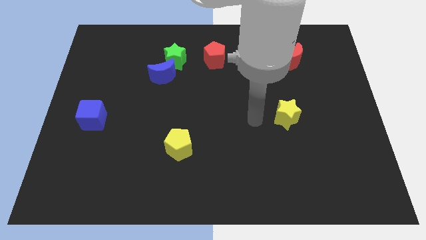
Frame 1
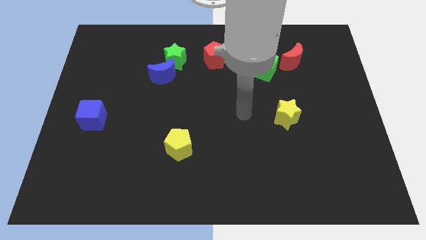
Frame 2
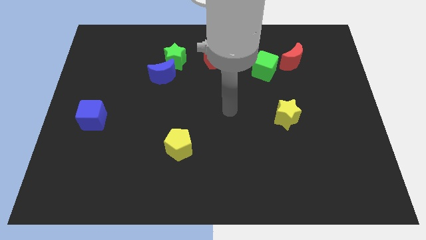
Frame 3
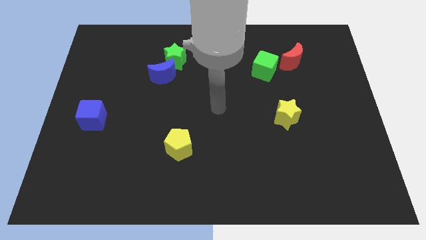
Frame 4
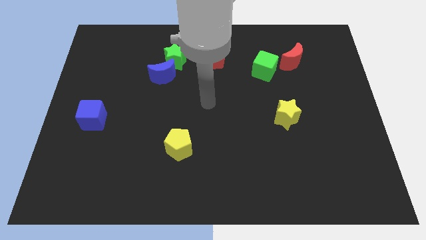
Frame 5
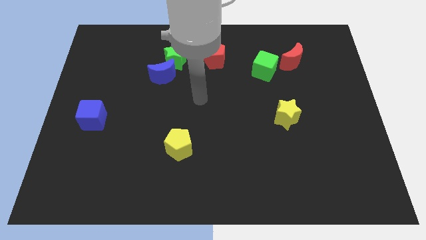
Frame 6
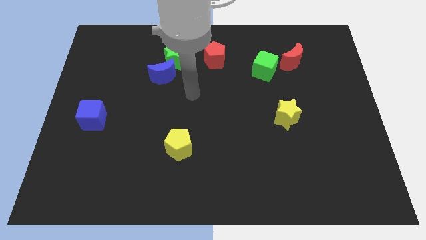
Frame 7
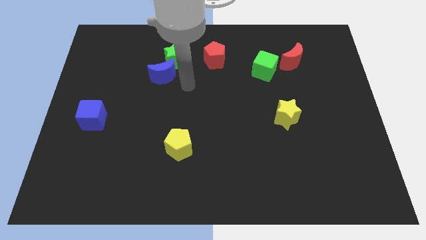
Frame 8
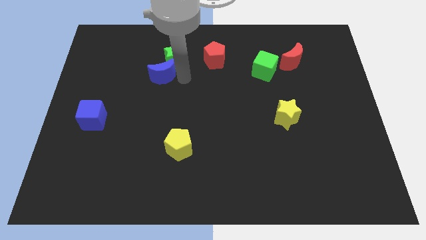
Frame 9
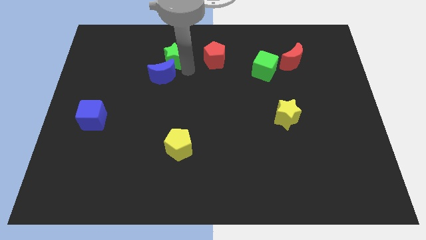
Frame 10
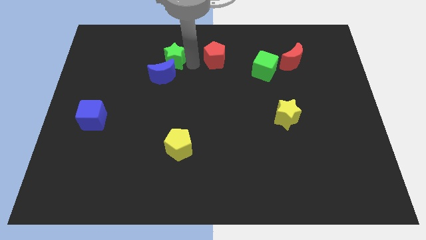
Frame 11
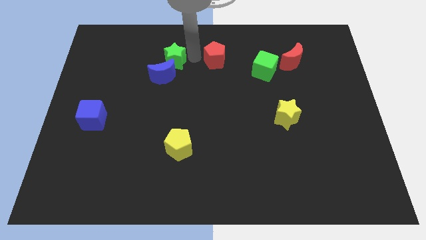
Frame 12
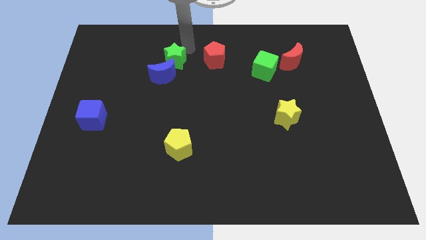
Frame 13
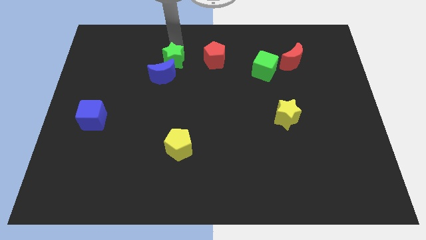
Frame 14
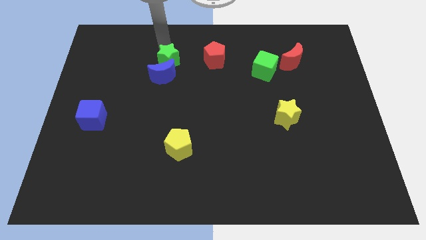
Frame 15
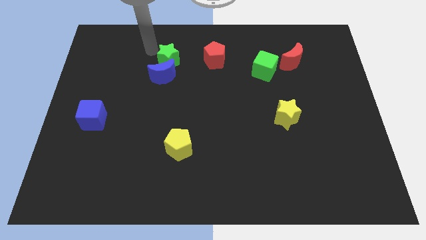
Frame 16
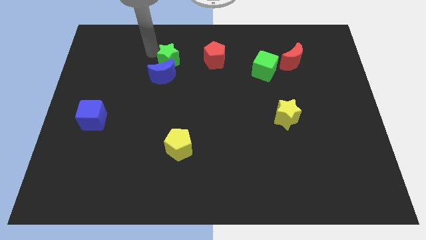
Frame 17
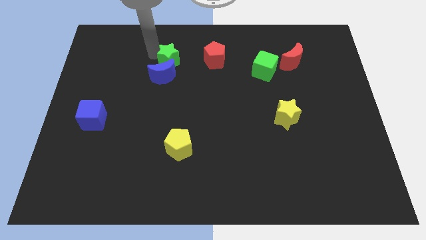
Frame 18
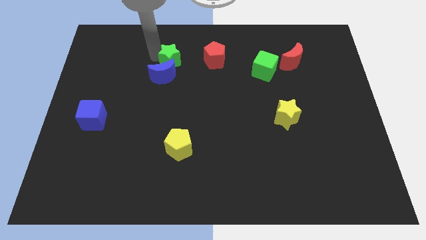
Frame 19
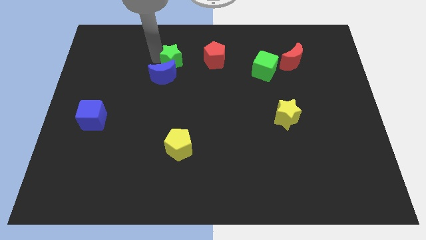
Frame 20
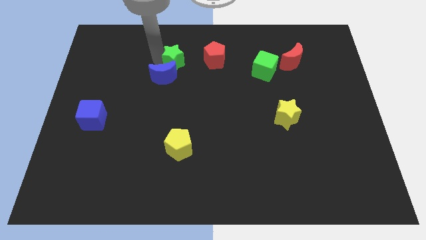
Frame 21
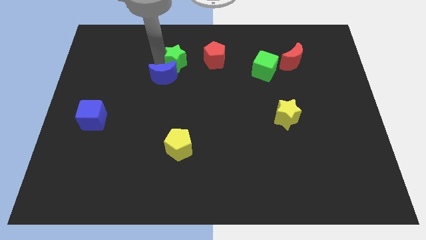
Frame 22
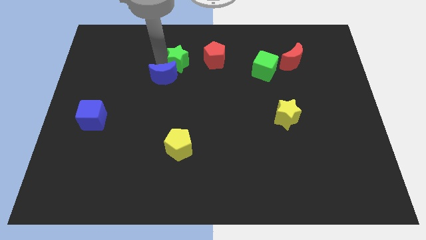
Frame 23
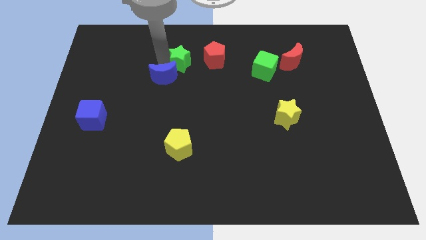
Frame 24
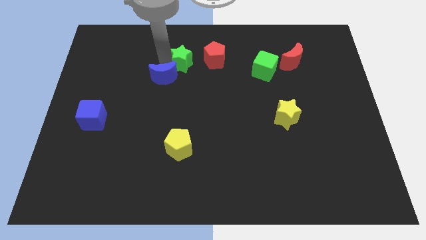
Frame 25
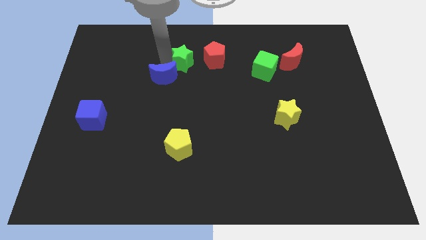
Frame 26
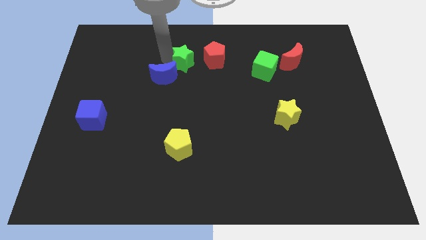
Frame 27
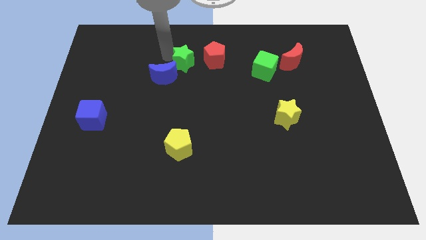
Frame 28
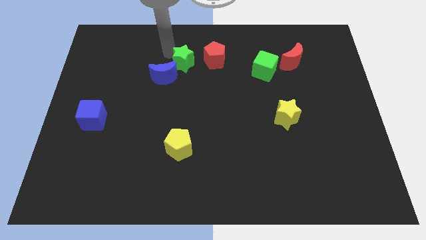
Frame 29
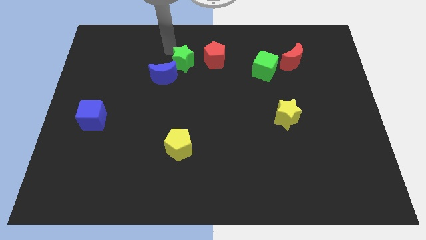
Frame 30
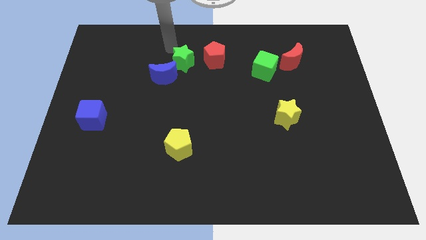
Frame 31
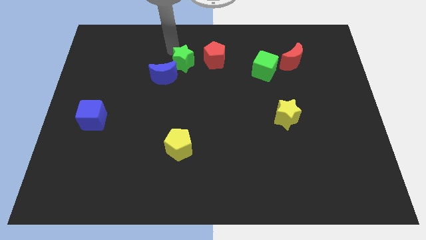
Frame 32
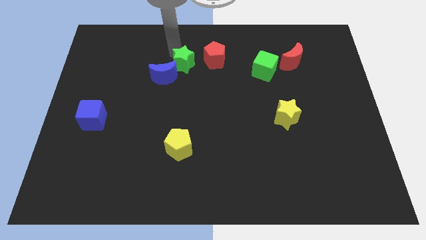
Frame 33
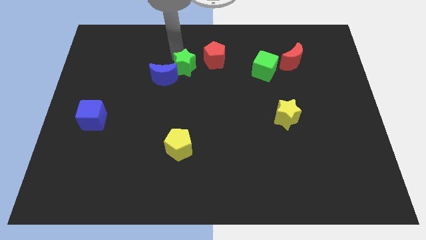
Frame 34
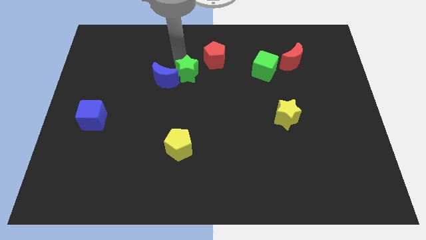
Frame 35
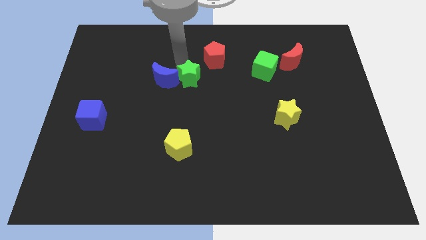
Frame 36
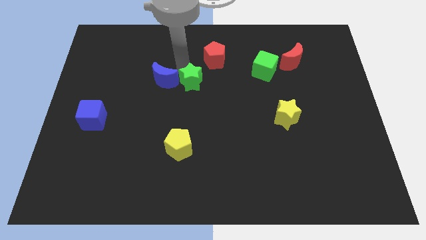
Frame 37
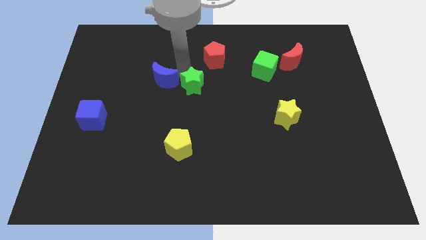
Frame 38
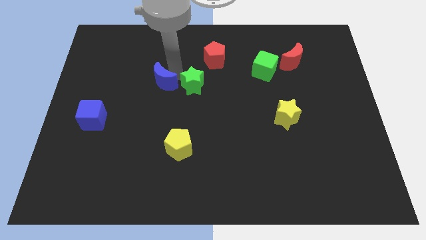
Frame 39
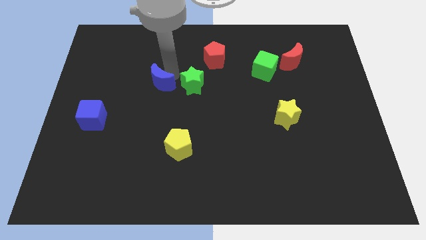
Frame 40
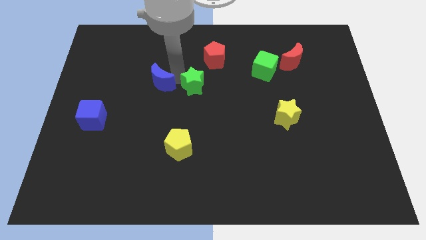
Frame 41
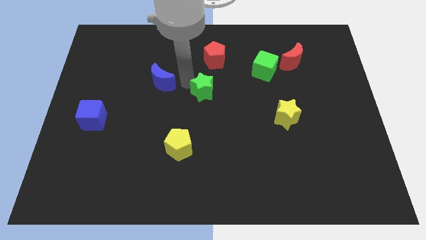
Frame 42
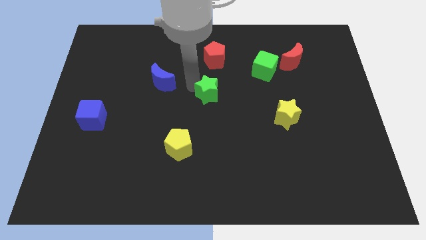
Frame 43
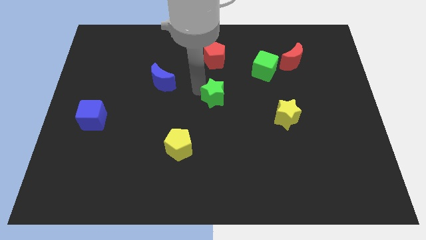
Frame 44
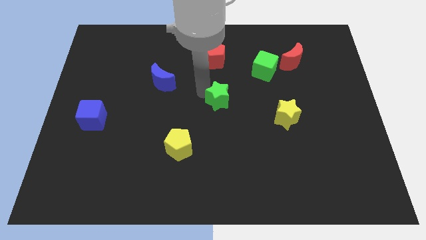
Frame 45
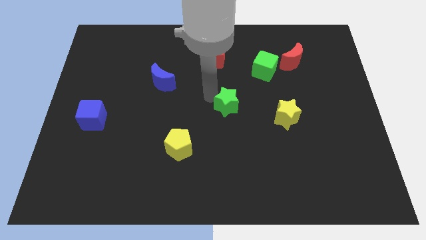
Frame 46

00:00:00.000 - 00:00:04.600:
move the green star downwards and right diagonally

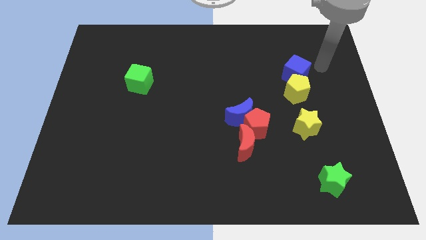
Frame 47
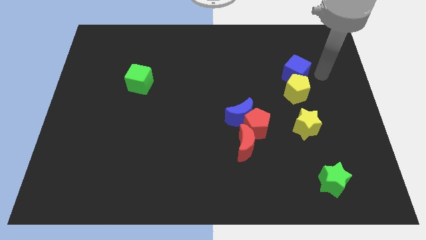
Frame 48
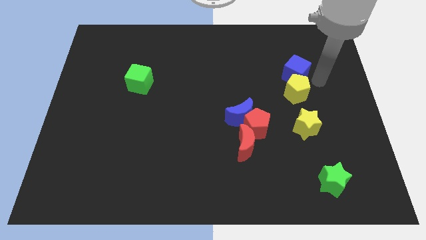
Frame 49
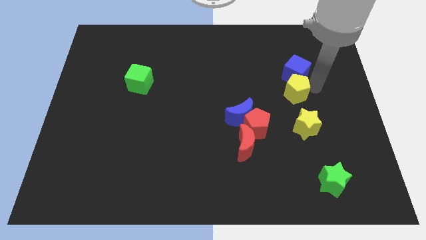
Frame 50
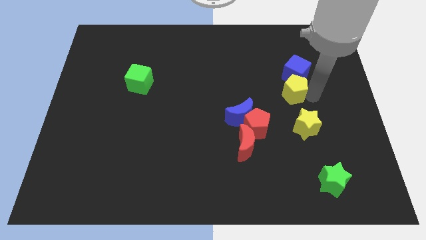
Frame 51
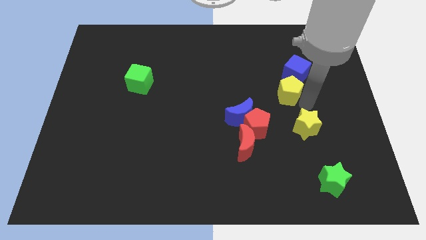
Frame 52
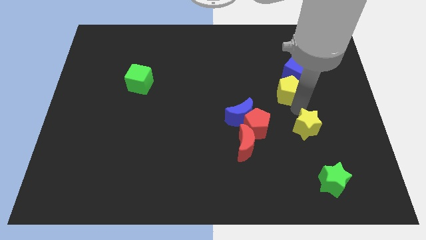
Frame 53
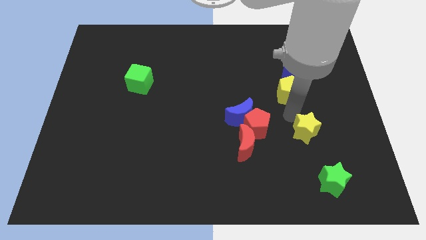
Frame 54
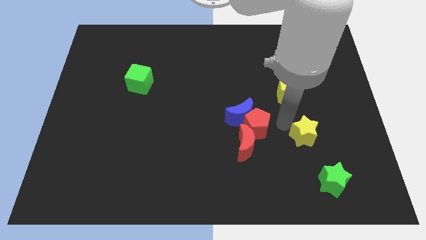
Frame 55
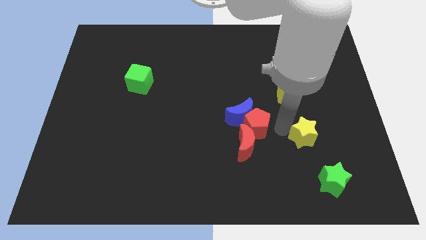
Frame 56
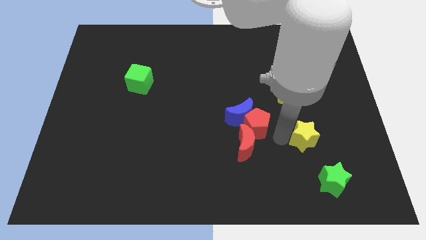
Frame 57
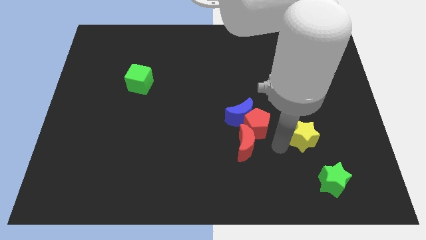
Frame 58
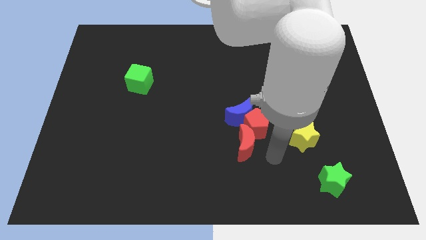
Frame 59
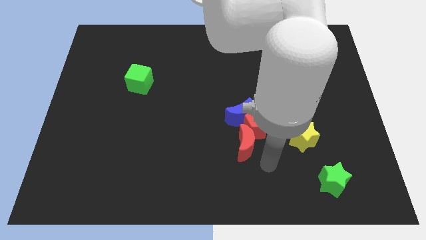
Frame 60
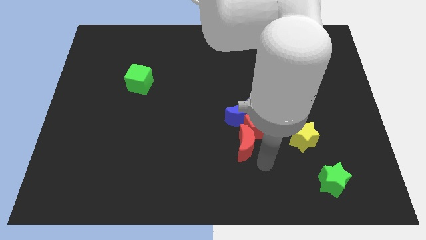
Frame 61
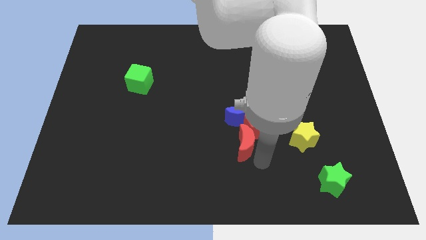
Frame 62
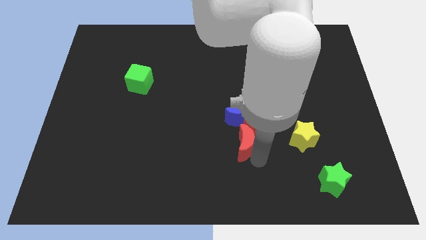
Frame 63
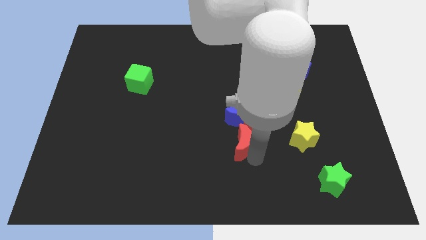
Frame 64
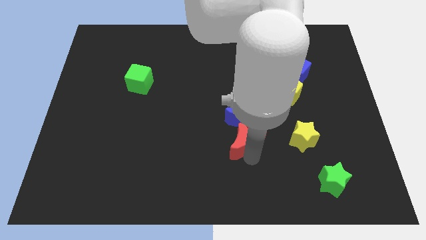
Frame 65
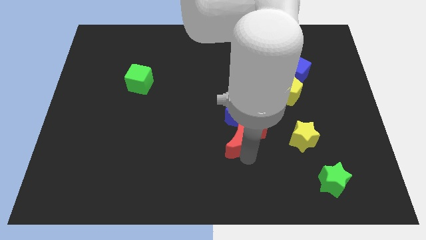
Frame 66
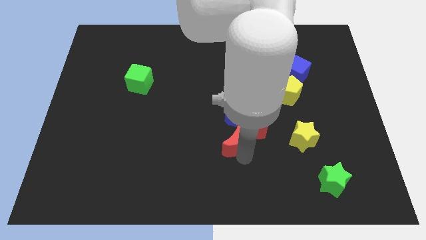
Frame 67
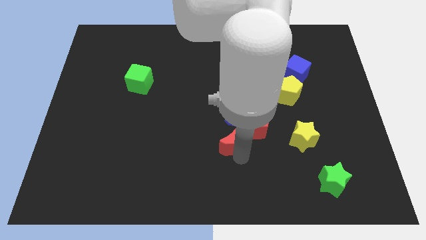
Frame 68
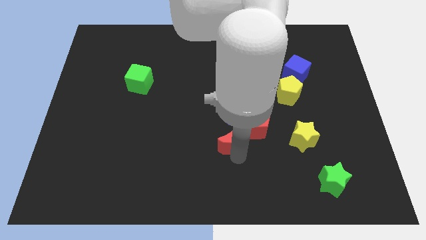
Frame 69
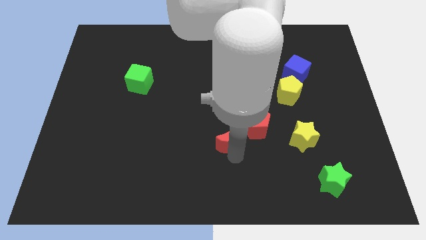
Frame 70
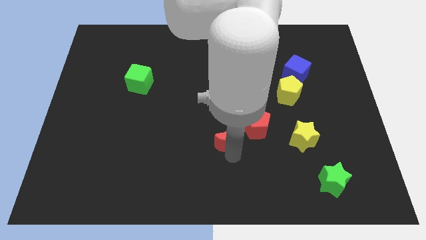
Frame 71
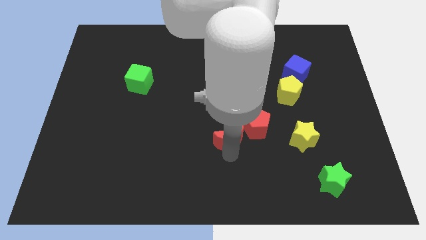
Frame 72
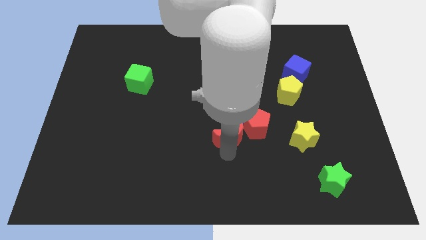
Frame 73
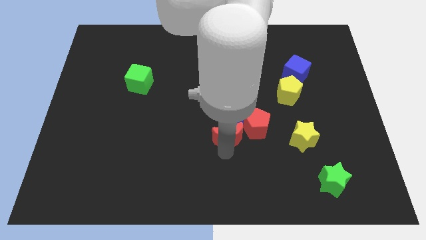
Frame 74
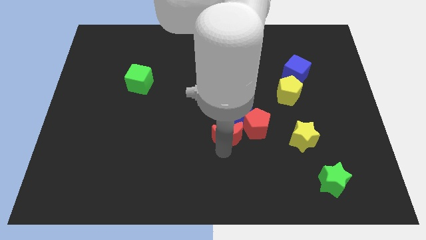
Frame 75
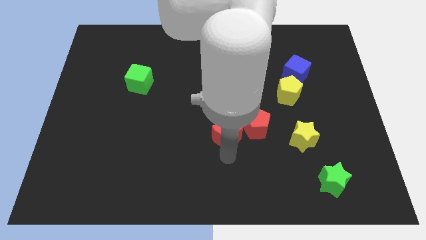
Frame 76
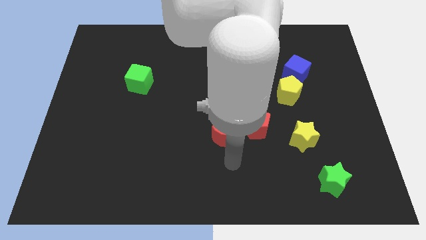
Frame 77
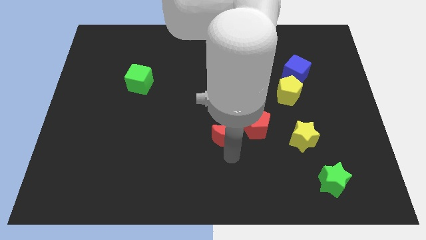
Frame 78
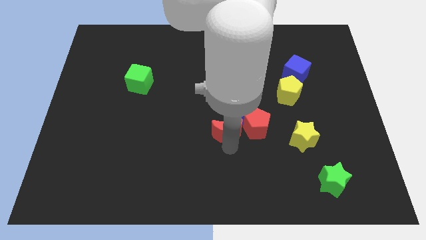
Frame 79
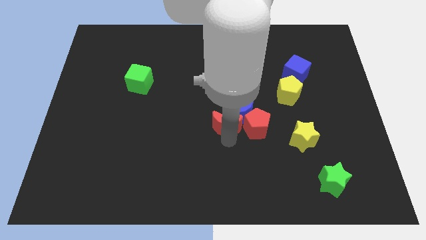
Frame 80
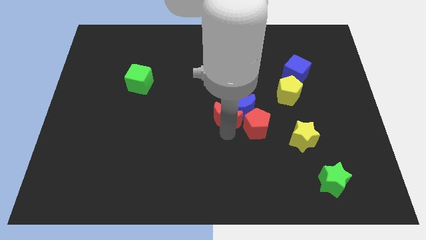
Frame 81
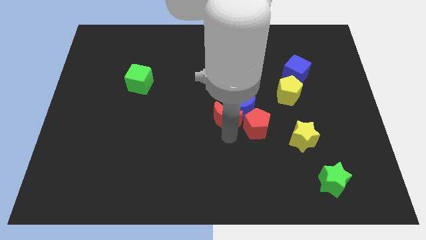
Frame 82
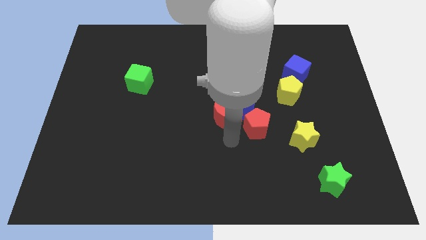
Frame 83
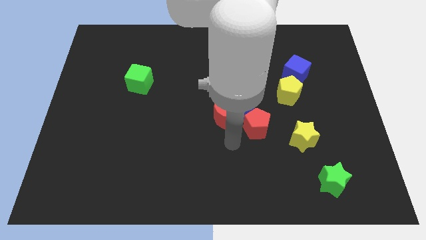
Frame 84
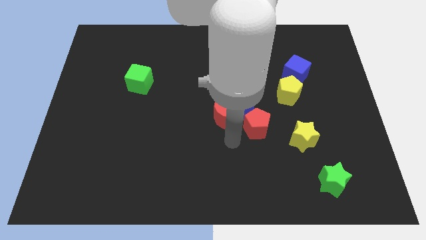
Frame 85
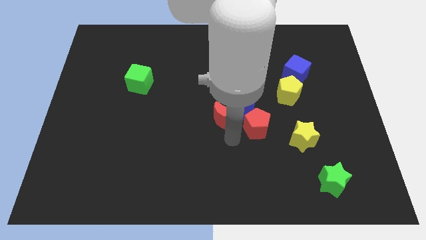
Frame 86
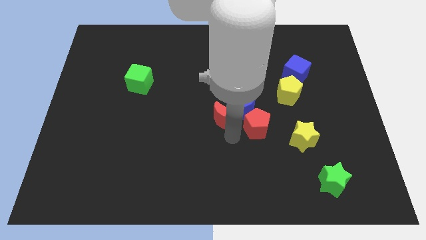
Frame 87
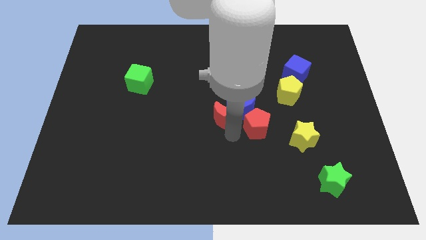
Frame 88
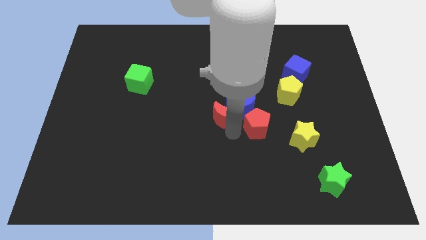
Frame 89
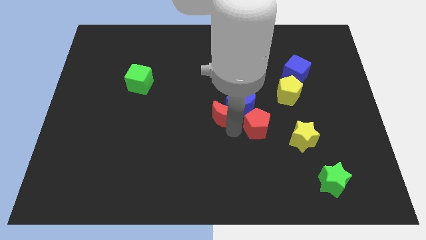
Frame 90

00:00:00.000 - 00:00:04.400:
slide the red moon slightly upwards
